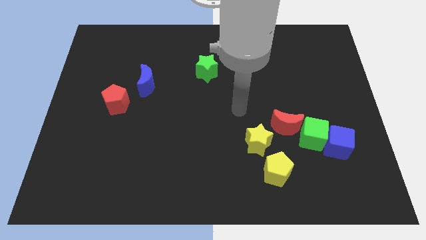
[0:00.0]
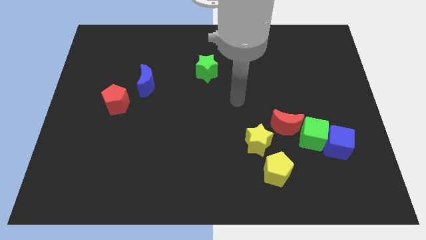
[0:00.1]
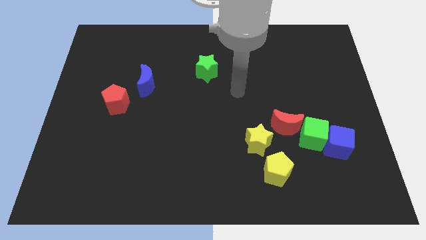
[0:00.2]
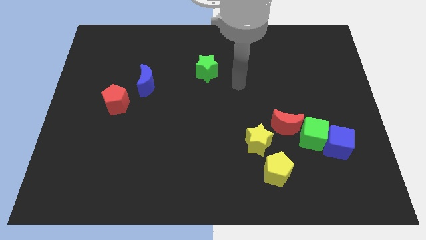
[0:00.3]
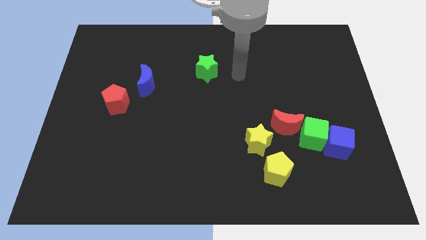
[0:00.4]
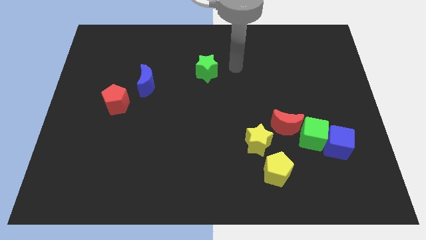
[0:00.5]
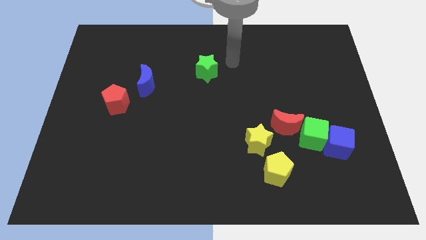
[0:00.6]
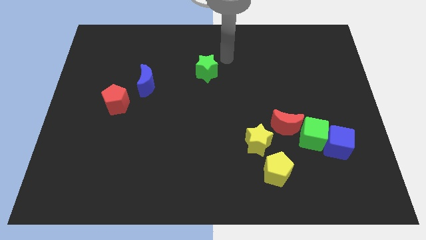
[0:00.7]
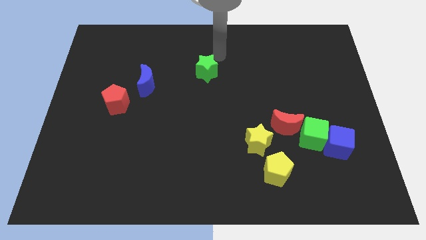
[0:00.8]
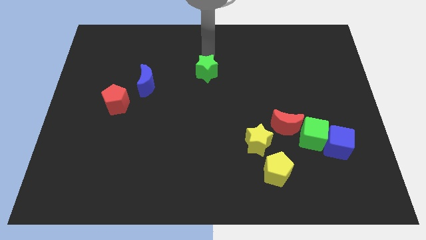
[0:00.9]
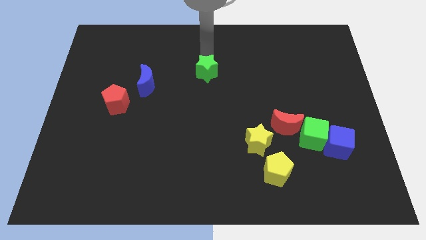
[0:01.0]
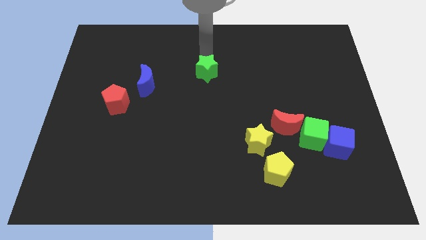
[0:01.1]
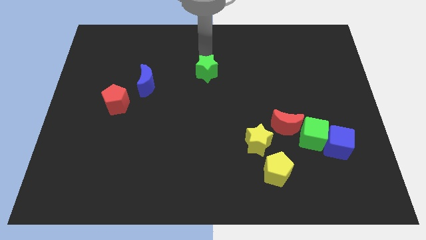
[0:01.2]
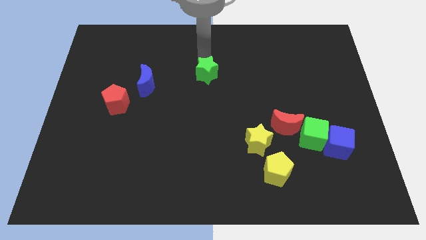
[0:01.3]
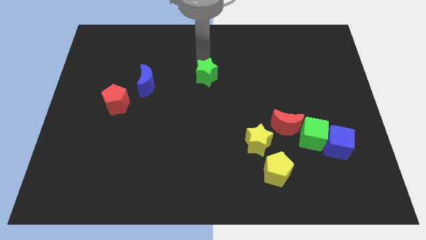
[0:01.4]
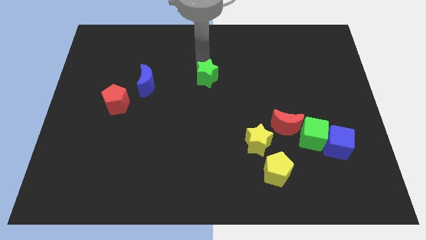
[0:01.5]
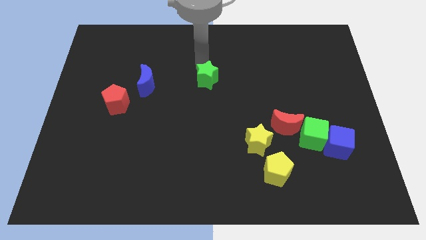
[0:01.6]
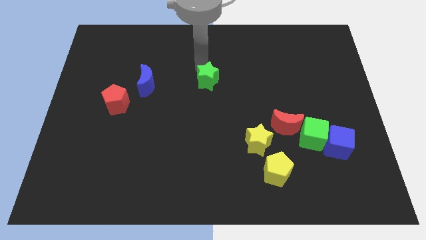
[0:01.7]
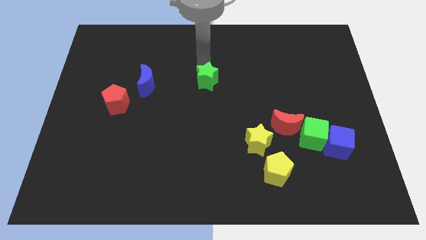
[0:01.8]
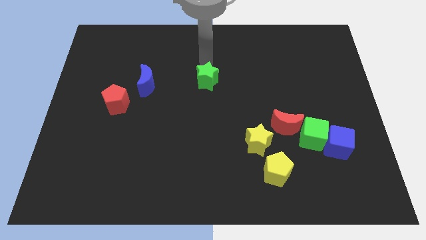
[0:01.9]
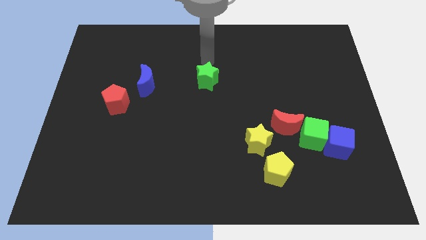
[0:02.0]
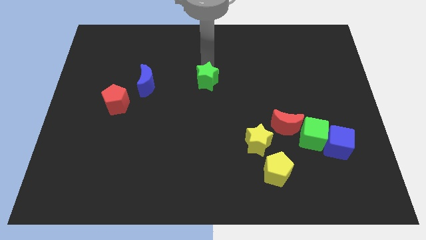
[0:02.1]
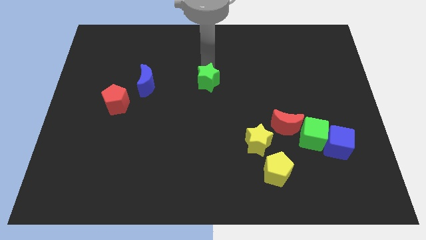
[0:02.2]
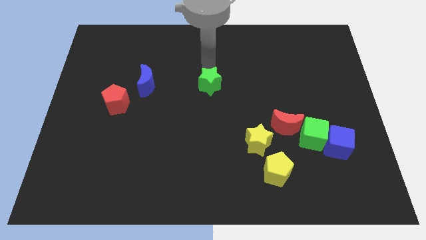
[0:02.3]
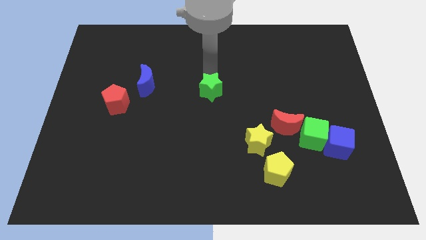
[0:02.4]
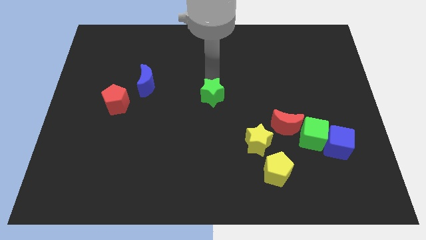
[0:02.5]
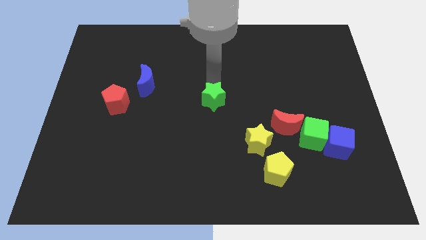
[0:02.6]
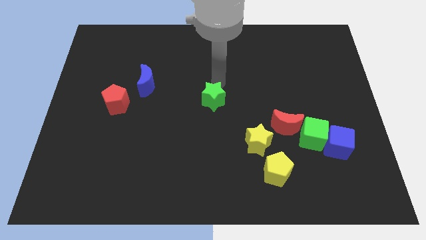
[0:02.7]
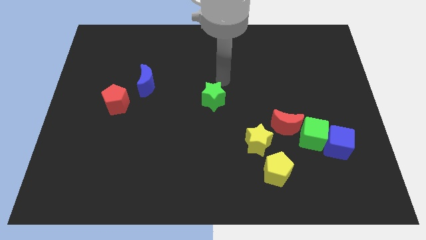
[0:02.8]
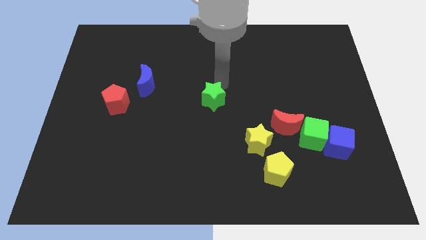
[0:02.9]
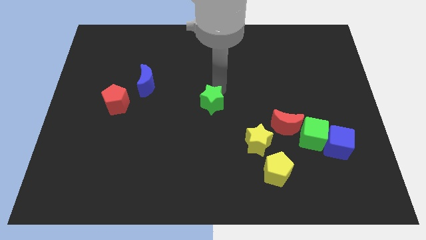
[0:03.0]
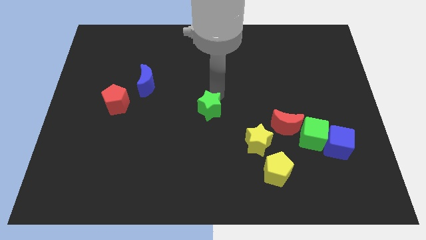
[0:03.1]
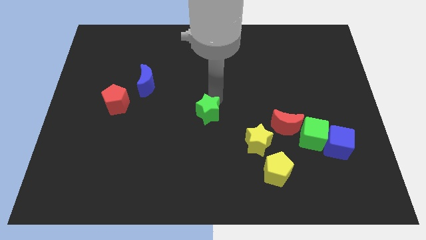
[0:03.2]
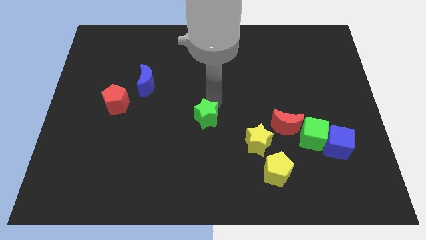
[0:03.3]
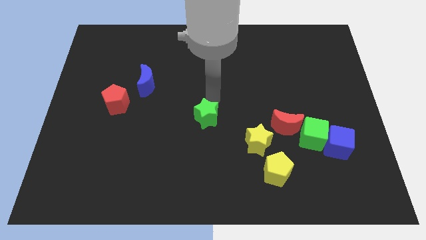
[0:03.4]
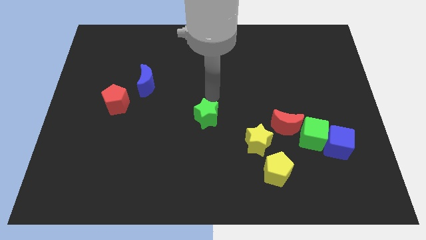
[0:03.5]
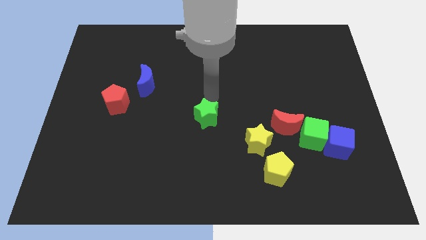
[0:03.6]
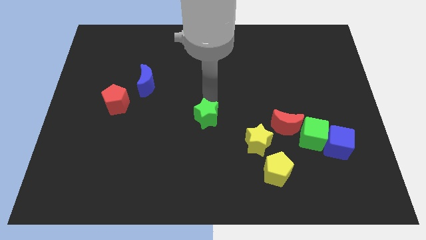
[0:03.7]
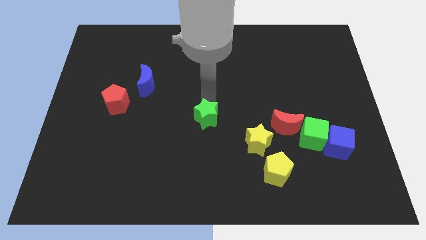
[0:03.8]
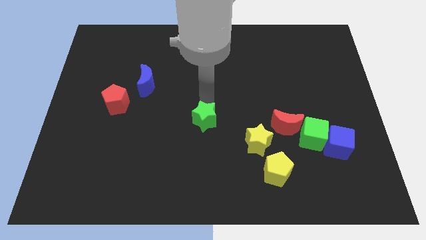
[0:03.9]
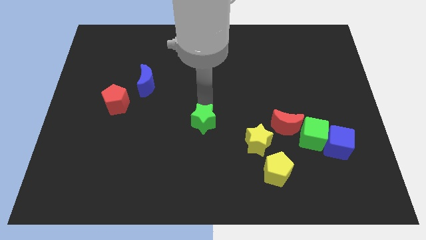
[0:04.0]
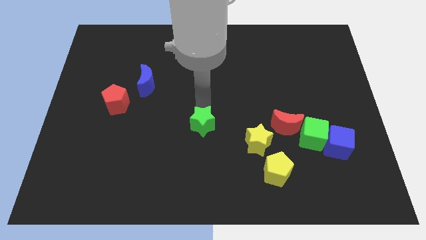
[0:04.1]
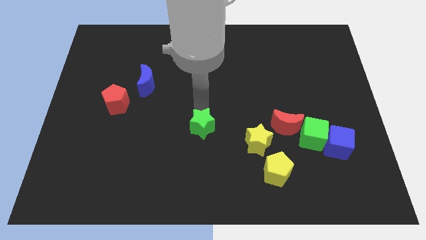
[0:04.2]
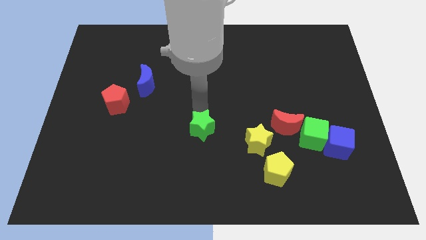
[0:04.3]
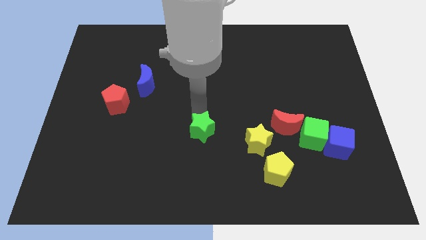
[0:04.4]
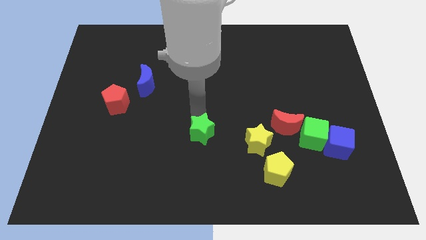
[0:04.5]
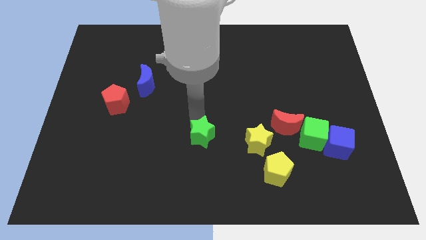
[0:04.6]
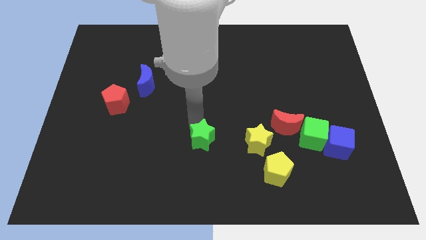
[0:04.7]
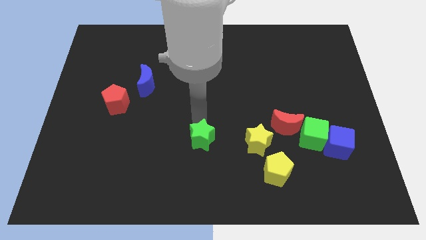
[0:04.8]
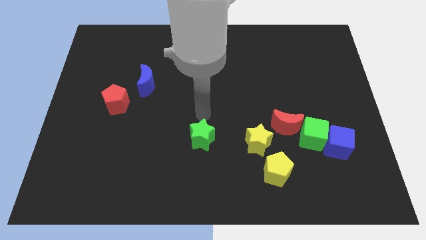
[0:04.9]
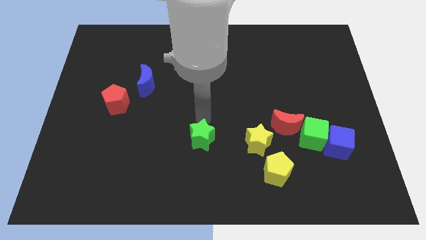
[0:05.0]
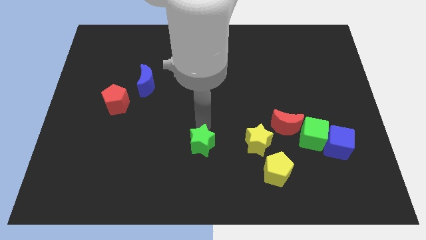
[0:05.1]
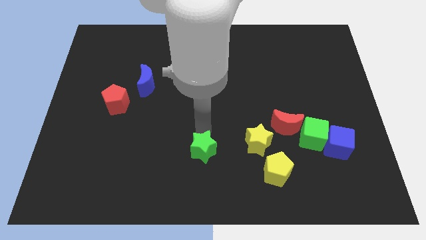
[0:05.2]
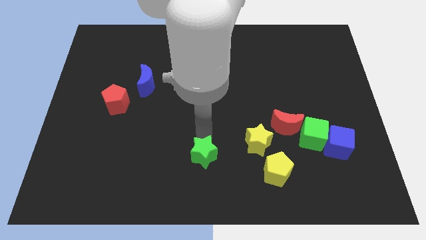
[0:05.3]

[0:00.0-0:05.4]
slide the green star to the bottom

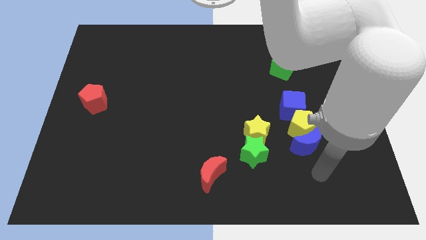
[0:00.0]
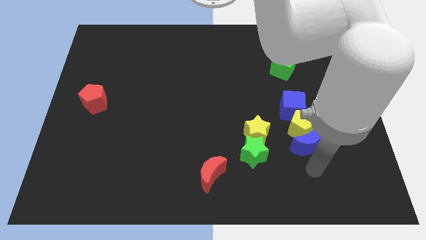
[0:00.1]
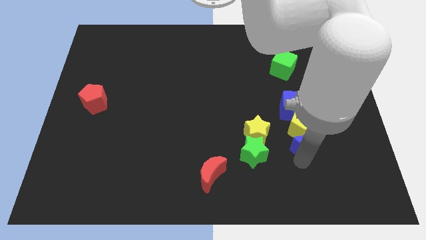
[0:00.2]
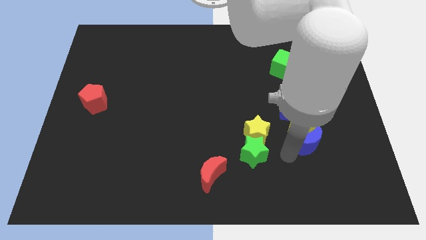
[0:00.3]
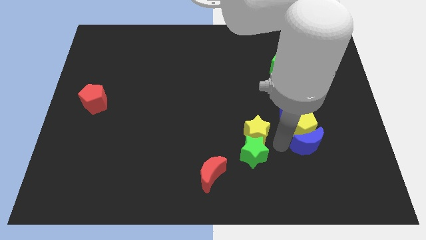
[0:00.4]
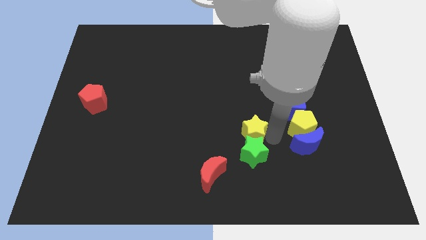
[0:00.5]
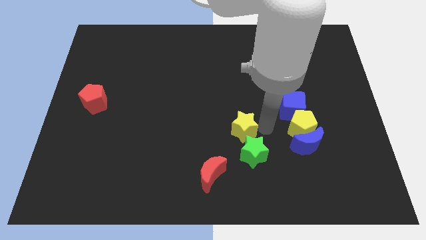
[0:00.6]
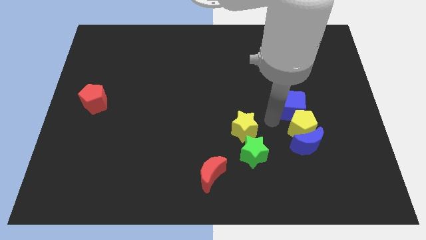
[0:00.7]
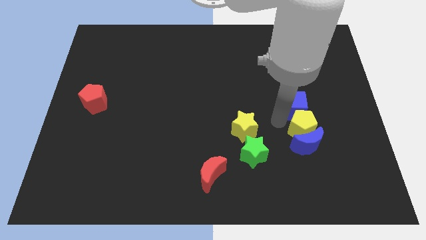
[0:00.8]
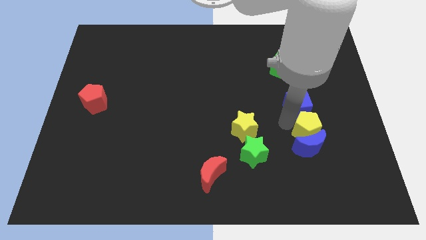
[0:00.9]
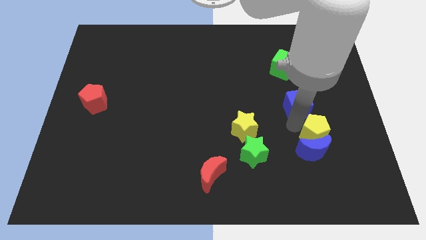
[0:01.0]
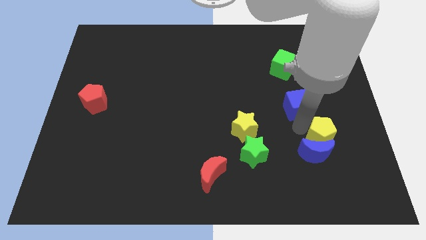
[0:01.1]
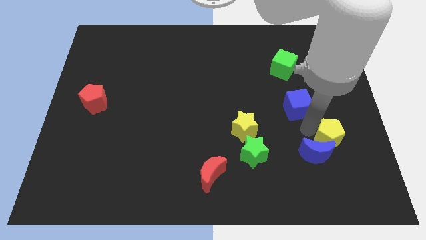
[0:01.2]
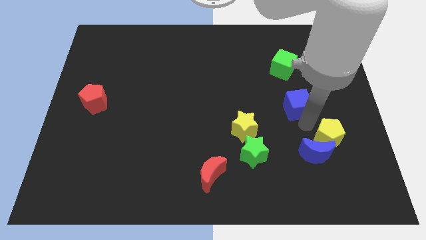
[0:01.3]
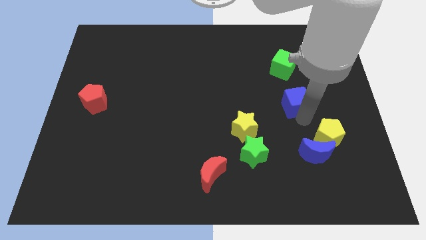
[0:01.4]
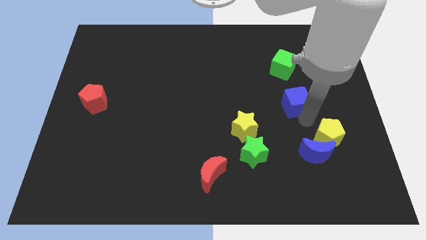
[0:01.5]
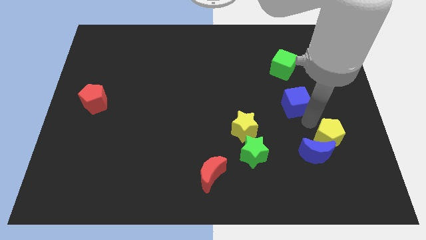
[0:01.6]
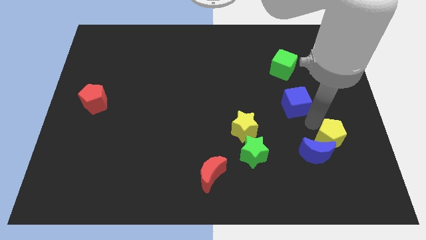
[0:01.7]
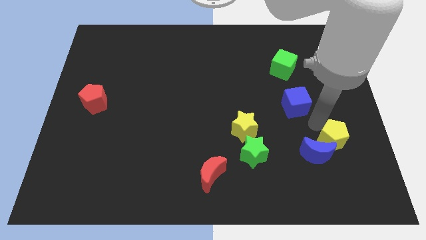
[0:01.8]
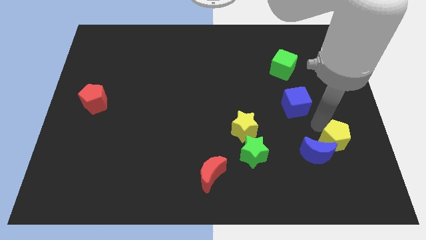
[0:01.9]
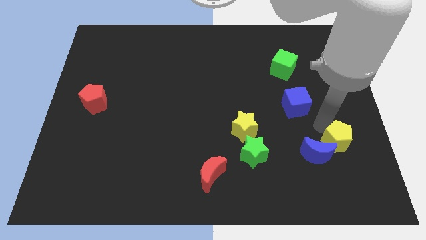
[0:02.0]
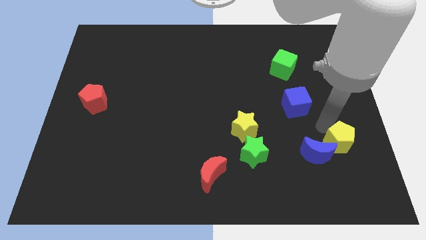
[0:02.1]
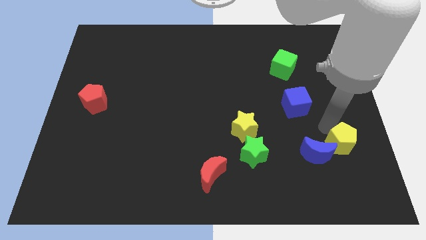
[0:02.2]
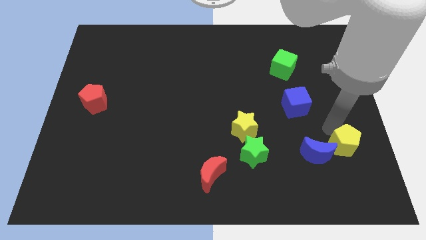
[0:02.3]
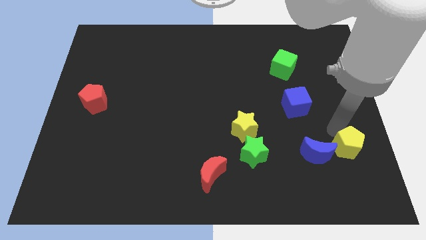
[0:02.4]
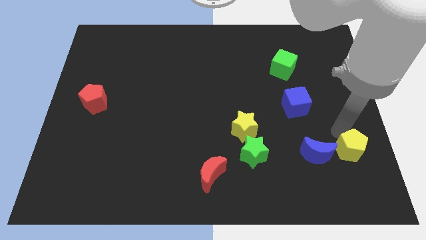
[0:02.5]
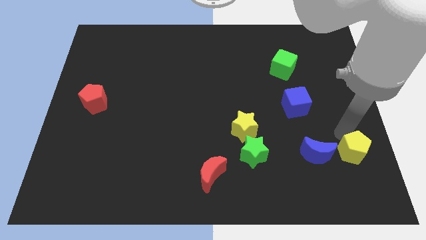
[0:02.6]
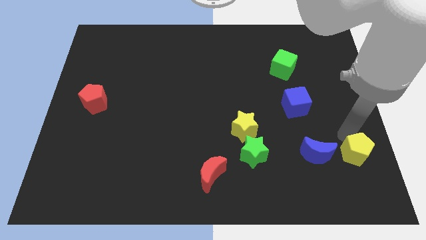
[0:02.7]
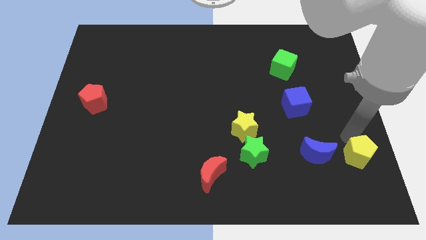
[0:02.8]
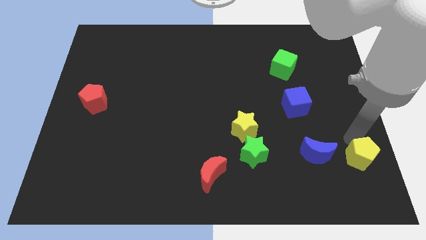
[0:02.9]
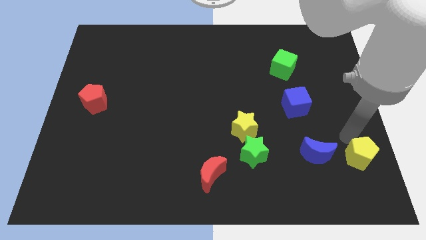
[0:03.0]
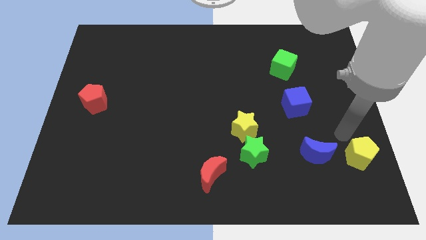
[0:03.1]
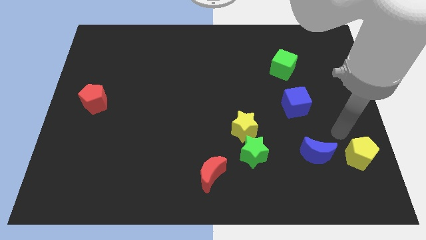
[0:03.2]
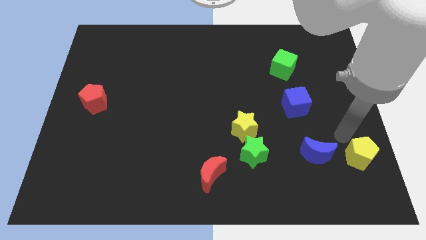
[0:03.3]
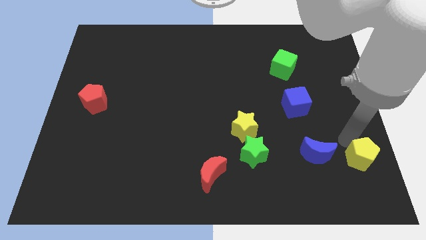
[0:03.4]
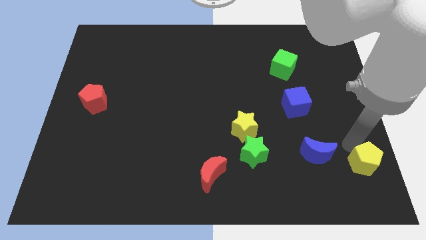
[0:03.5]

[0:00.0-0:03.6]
slide the yellow pentagon to the bottom right
